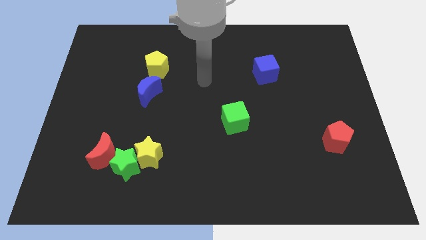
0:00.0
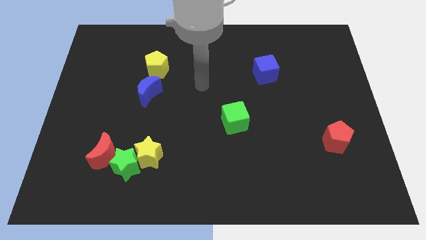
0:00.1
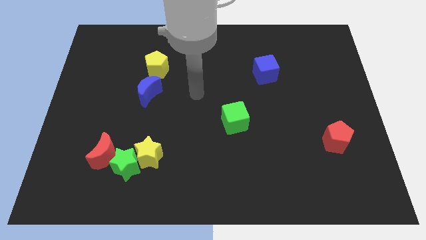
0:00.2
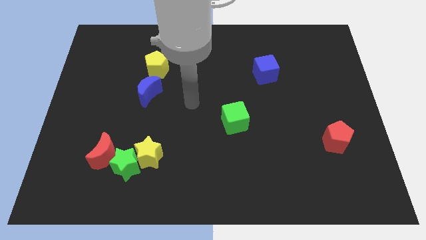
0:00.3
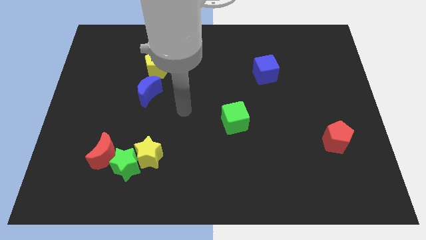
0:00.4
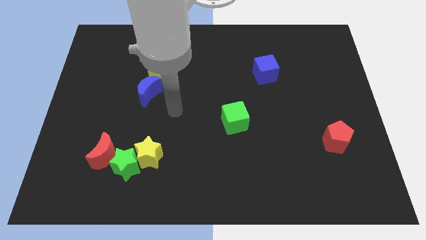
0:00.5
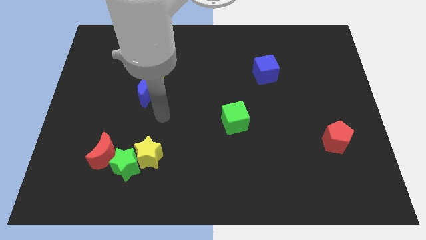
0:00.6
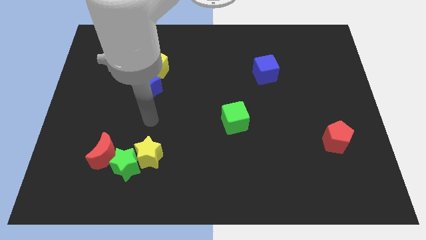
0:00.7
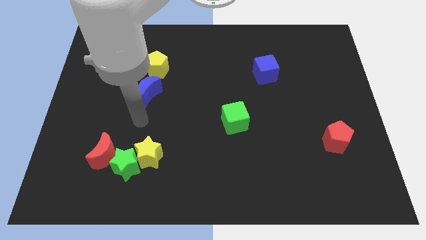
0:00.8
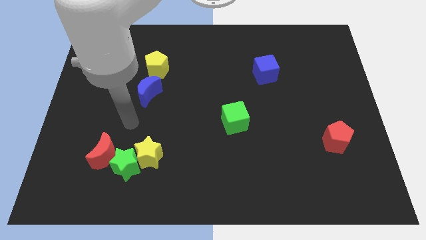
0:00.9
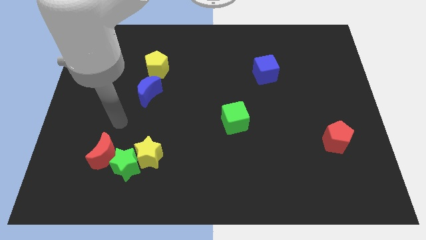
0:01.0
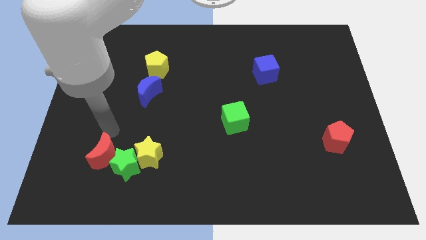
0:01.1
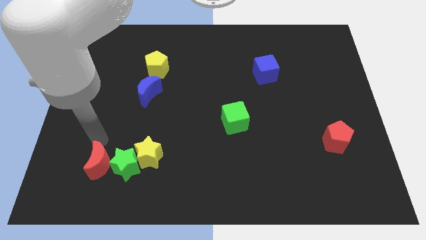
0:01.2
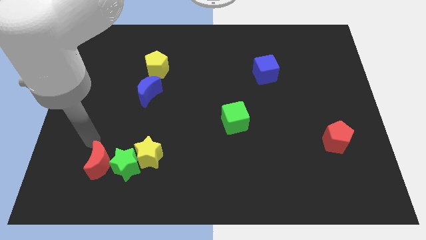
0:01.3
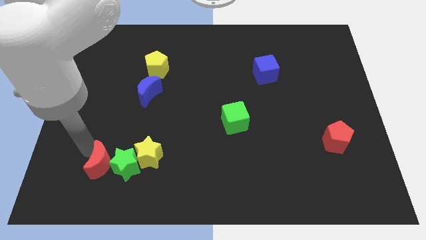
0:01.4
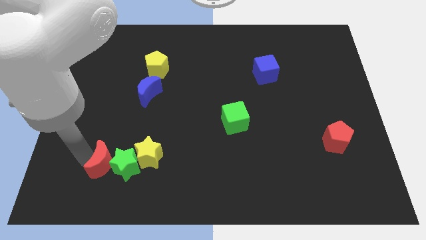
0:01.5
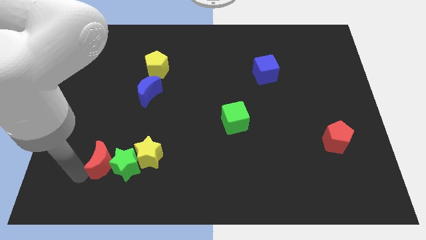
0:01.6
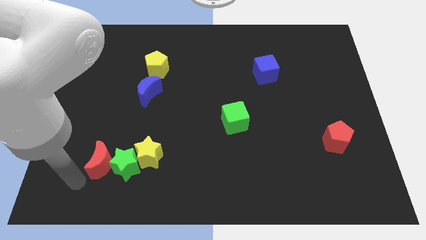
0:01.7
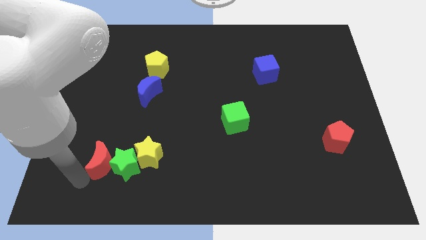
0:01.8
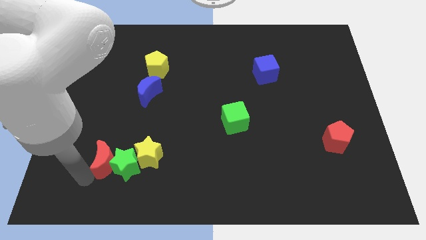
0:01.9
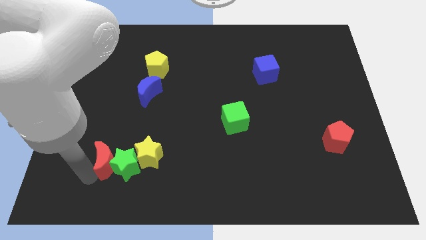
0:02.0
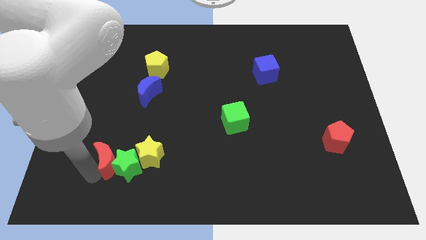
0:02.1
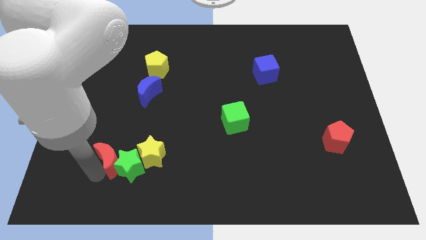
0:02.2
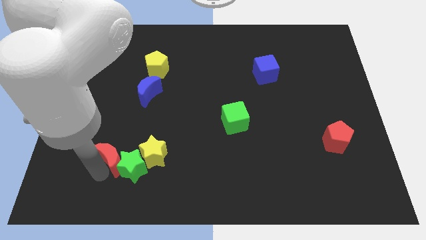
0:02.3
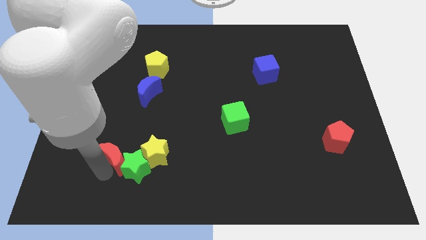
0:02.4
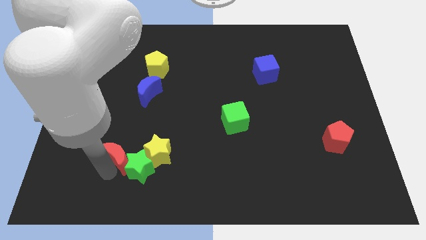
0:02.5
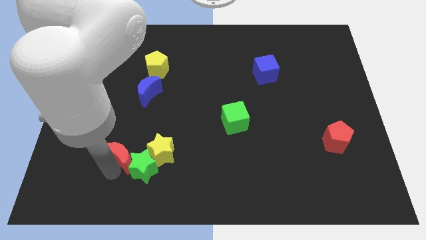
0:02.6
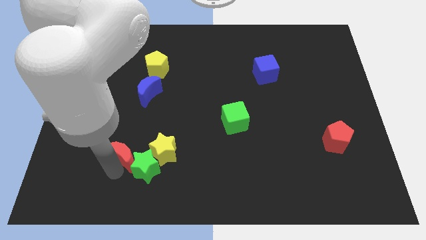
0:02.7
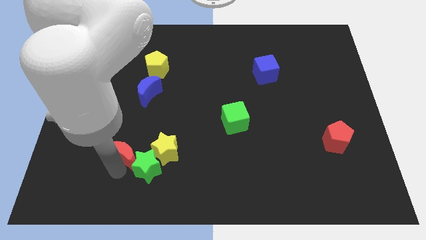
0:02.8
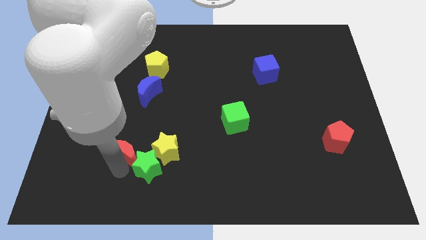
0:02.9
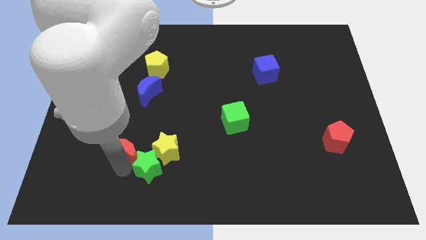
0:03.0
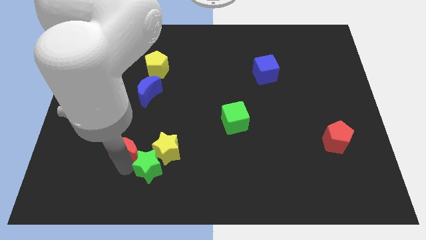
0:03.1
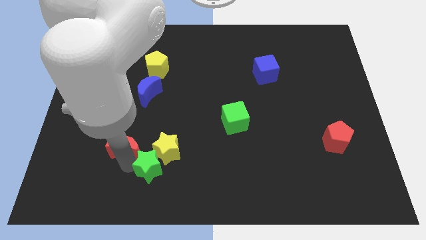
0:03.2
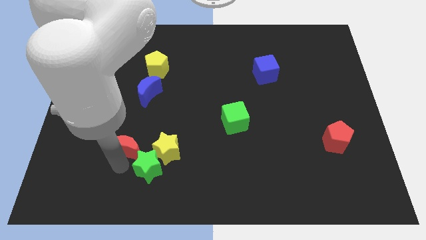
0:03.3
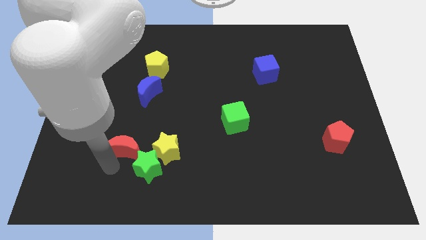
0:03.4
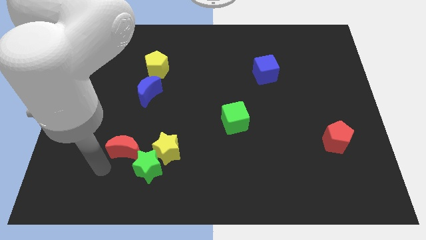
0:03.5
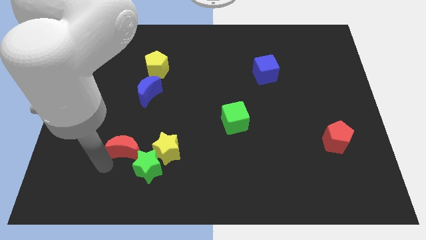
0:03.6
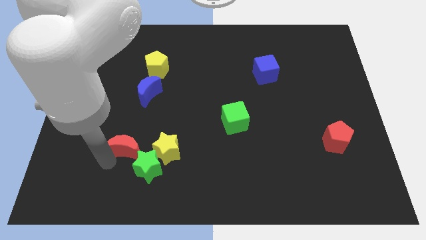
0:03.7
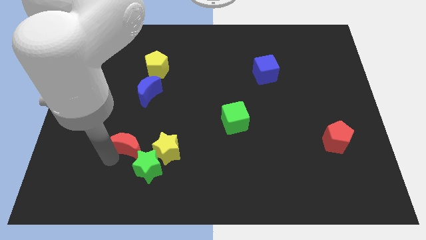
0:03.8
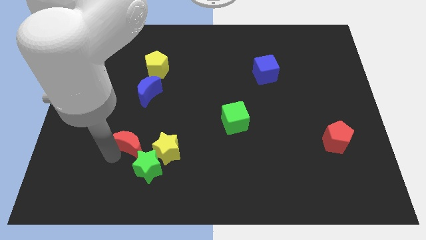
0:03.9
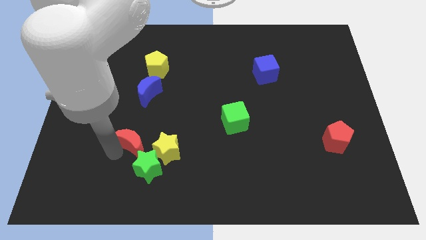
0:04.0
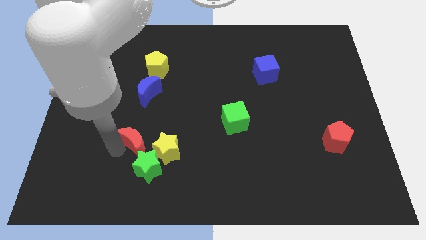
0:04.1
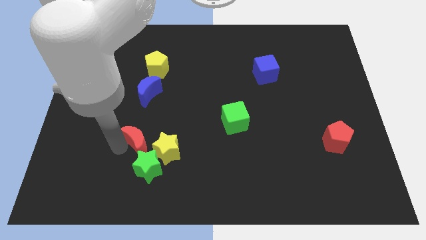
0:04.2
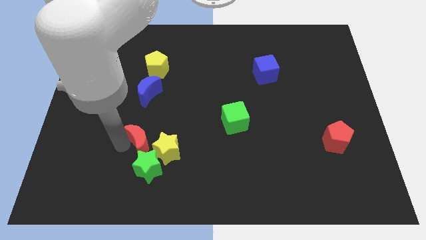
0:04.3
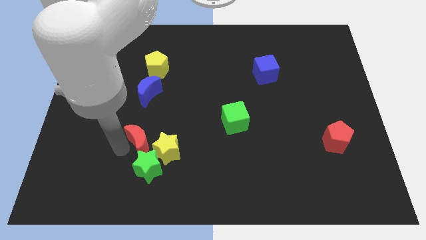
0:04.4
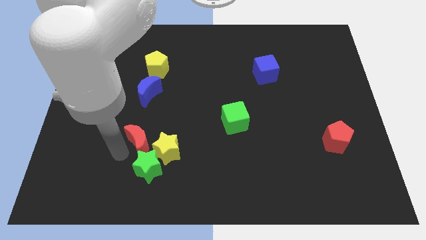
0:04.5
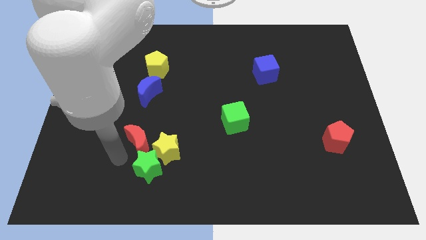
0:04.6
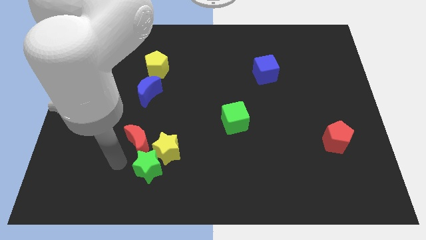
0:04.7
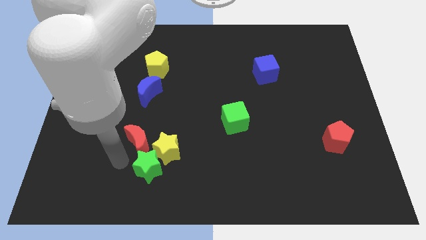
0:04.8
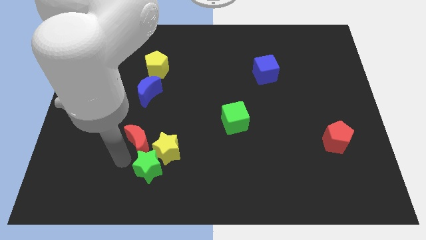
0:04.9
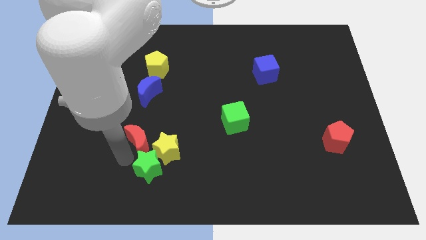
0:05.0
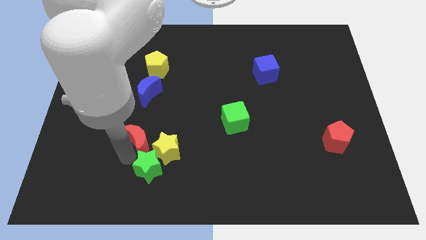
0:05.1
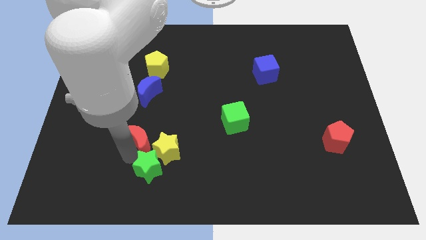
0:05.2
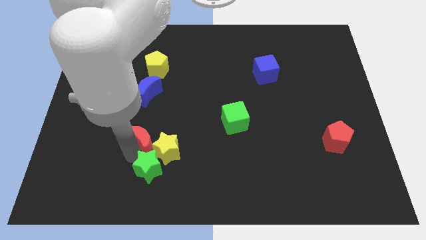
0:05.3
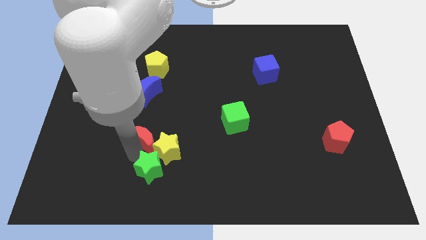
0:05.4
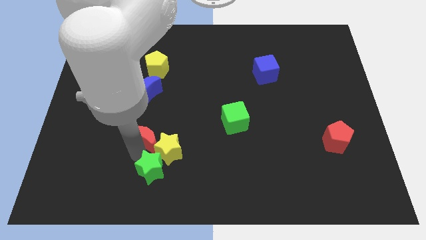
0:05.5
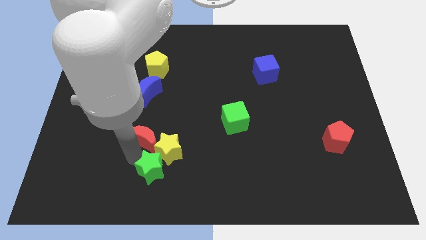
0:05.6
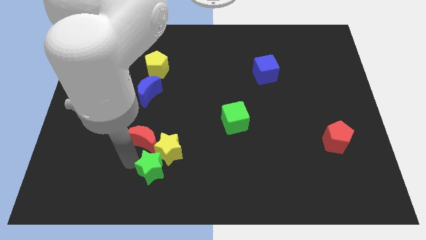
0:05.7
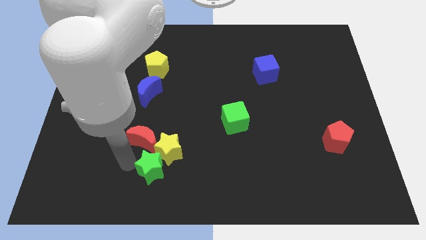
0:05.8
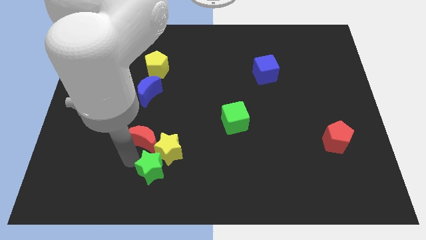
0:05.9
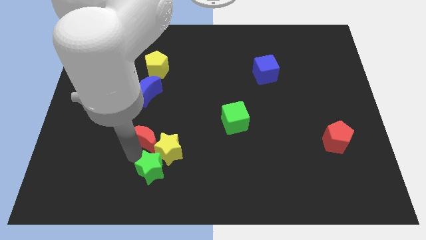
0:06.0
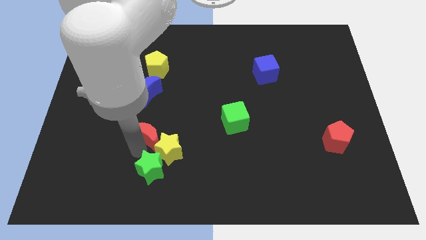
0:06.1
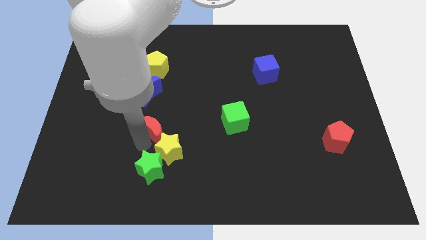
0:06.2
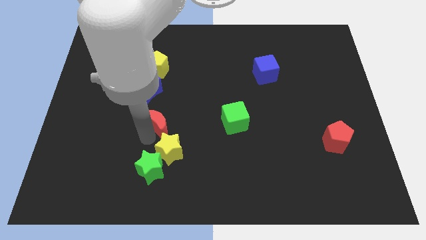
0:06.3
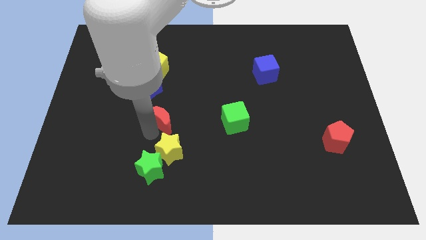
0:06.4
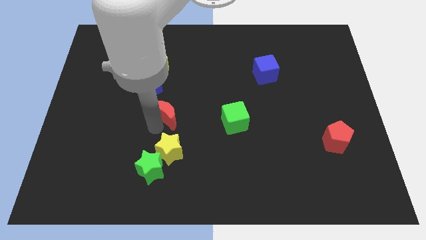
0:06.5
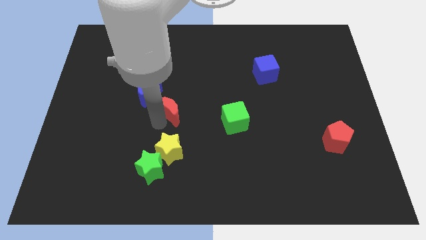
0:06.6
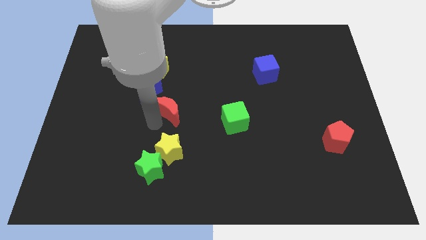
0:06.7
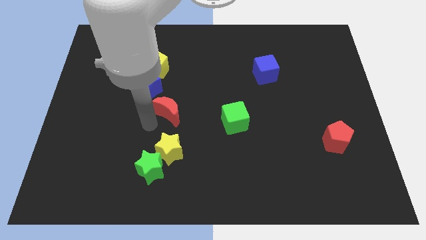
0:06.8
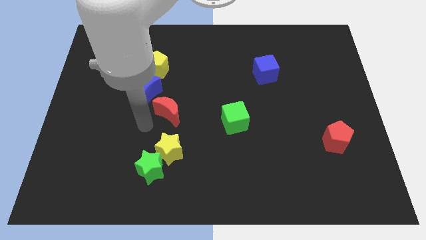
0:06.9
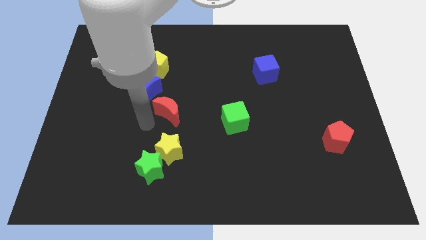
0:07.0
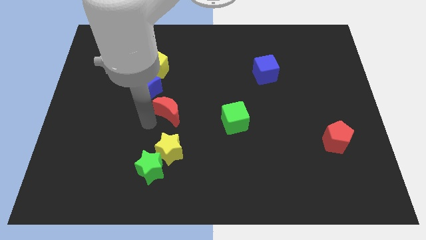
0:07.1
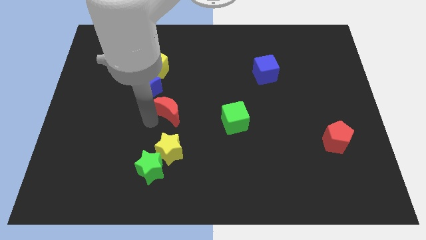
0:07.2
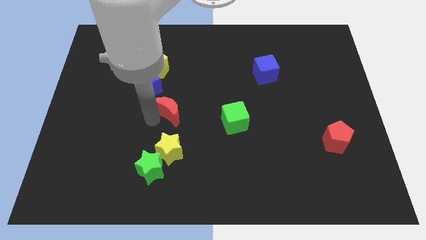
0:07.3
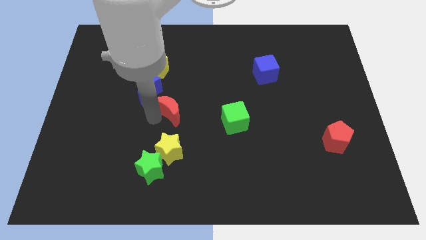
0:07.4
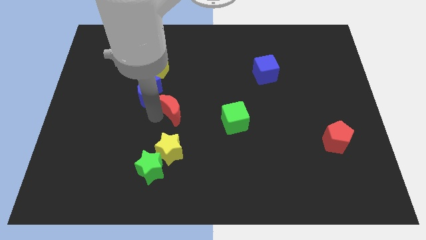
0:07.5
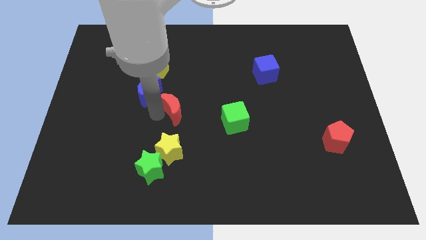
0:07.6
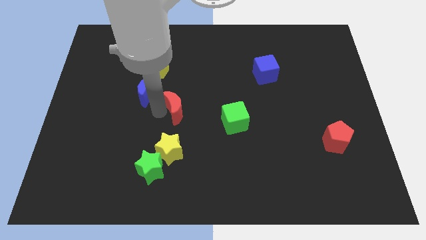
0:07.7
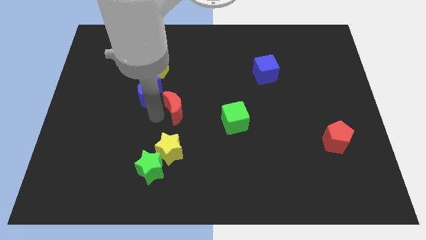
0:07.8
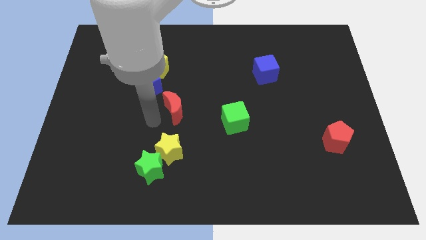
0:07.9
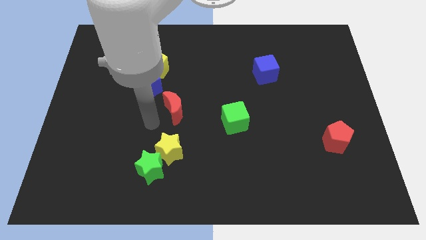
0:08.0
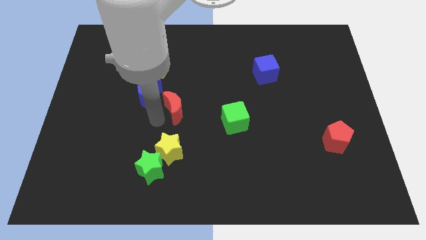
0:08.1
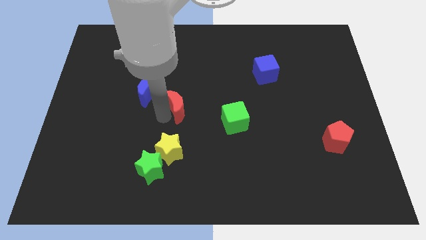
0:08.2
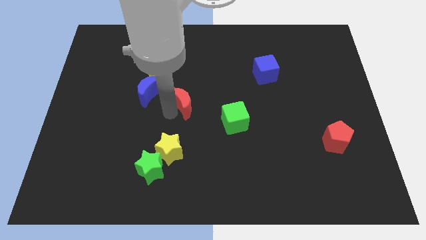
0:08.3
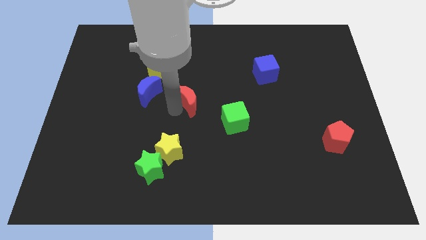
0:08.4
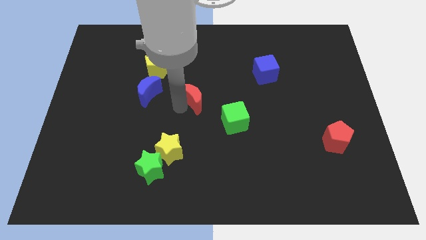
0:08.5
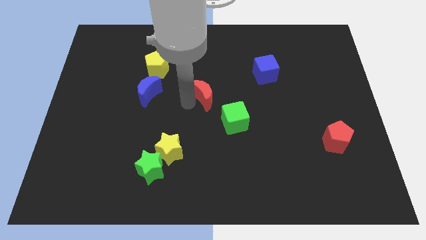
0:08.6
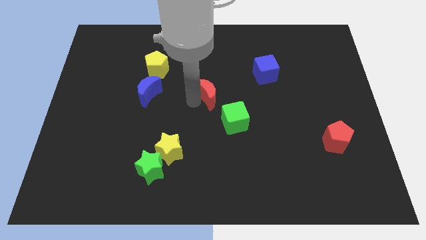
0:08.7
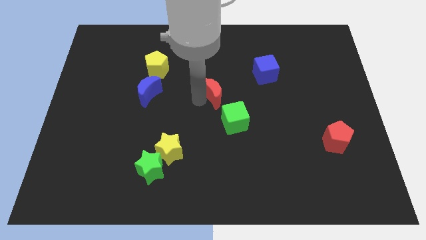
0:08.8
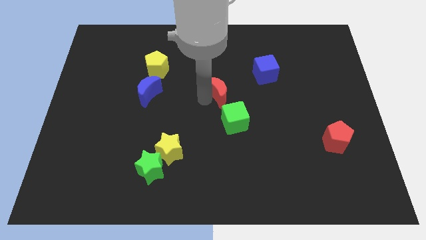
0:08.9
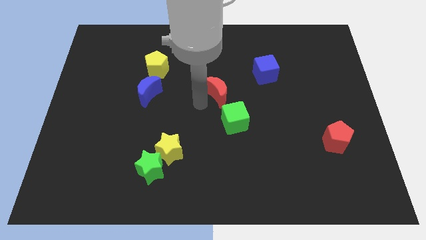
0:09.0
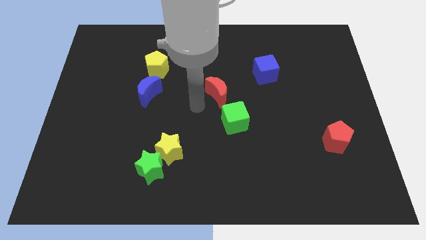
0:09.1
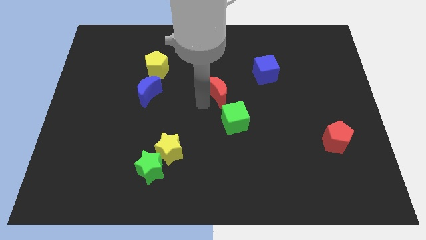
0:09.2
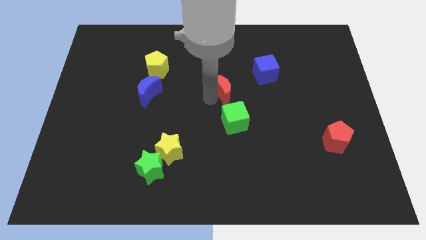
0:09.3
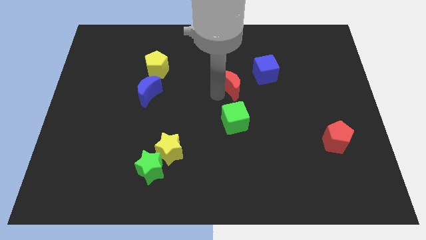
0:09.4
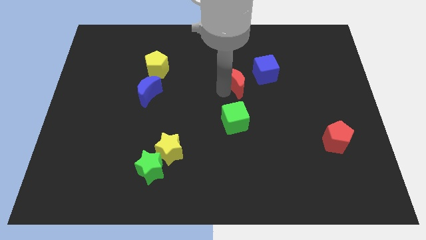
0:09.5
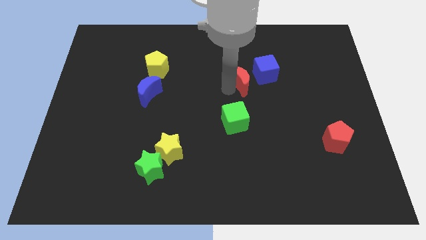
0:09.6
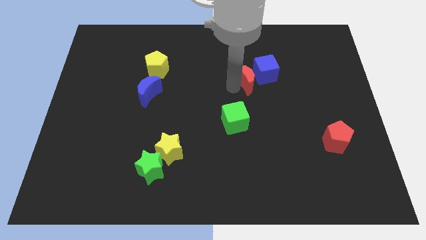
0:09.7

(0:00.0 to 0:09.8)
push the red moon next to the blue cube
